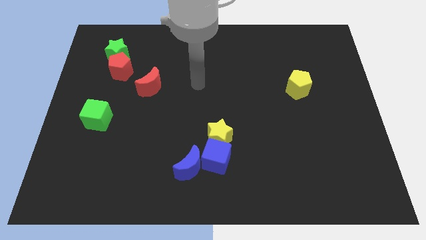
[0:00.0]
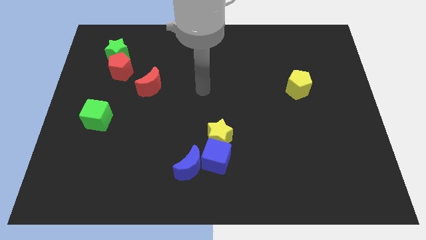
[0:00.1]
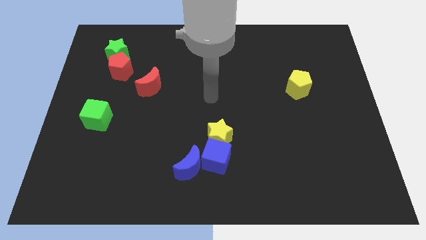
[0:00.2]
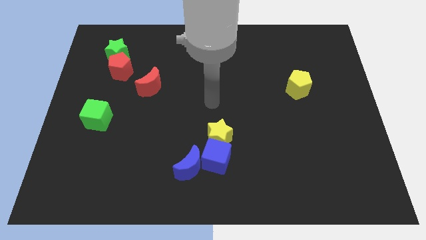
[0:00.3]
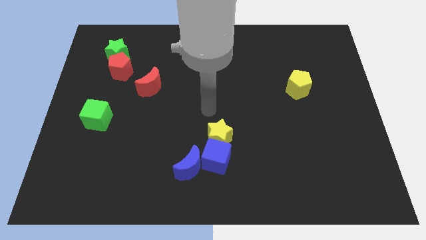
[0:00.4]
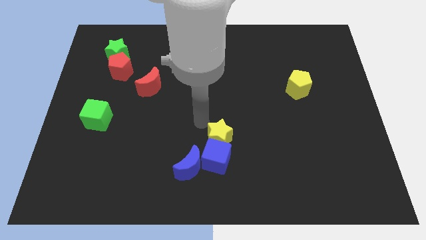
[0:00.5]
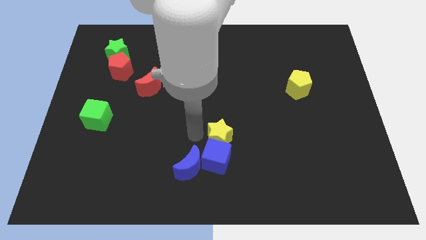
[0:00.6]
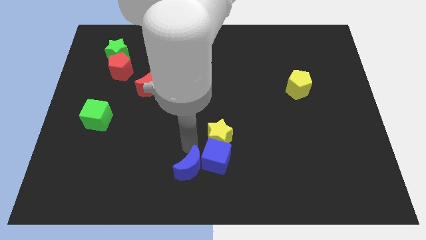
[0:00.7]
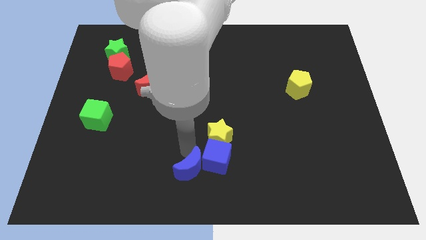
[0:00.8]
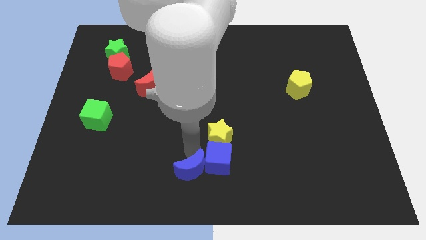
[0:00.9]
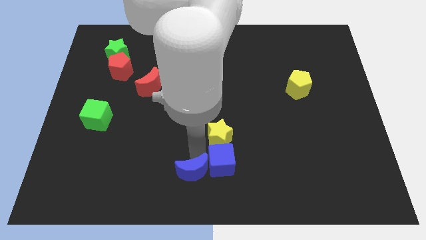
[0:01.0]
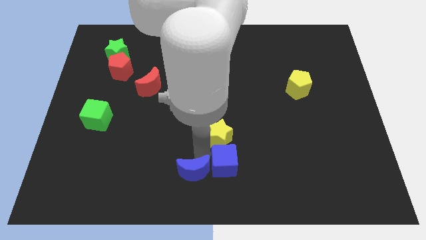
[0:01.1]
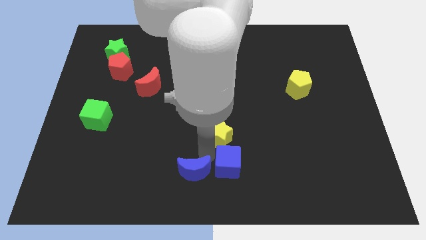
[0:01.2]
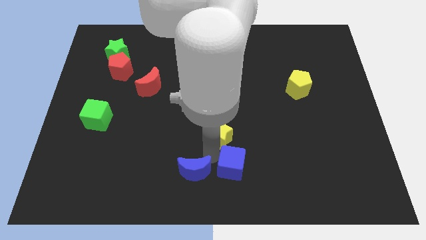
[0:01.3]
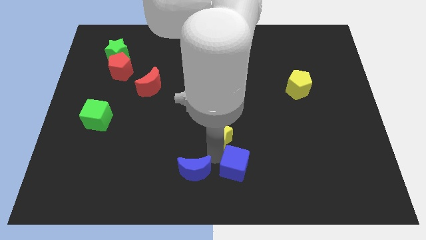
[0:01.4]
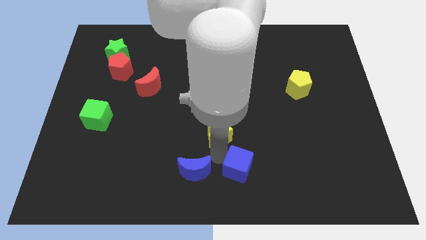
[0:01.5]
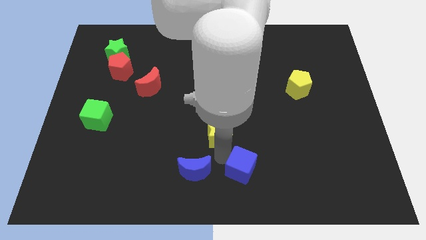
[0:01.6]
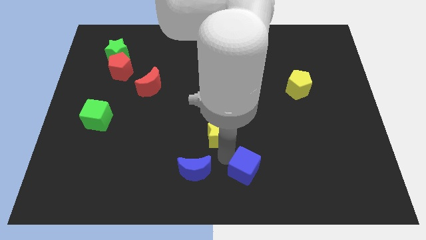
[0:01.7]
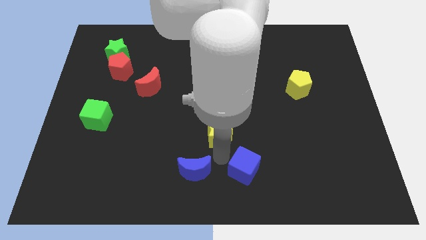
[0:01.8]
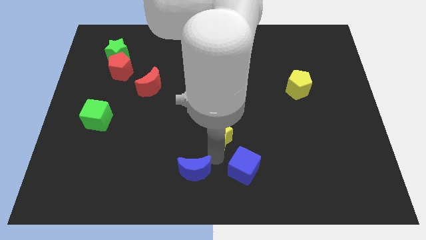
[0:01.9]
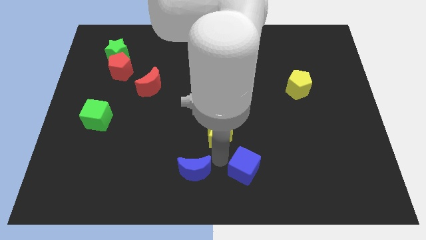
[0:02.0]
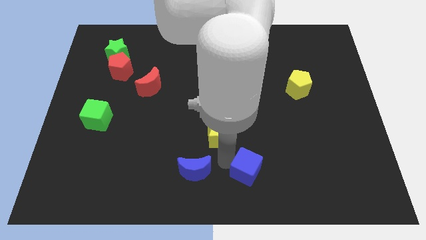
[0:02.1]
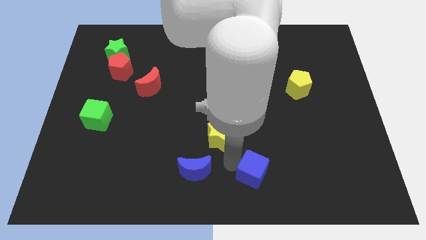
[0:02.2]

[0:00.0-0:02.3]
pull the blue cube apart from the yellow star and blue moon

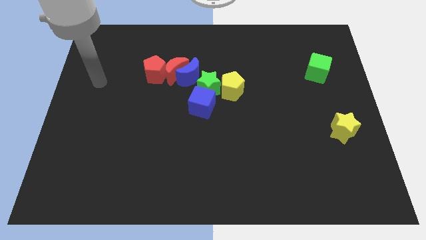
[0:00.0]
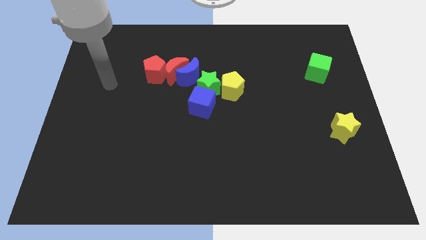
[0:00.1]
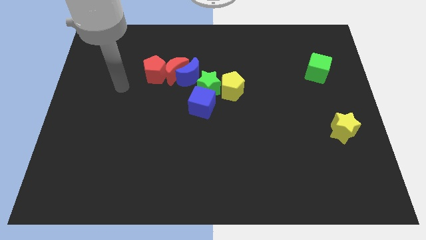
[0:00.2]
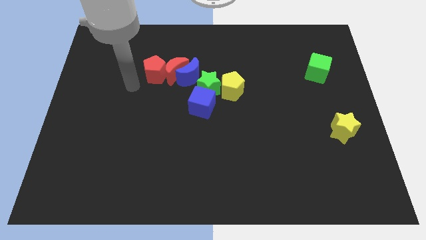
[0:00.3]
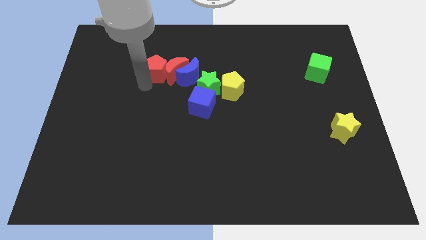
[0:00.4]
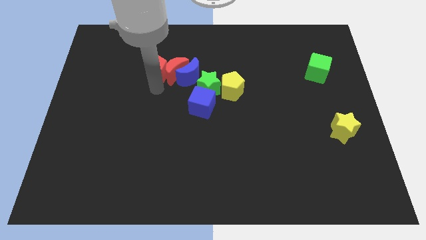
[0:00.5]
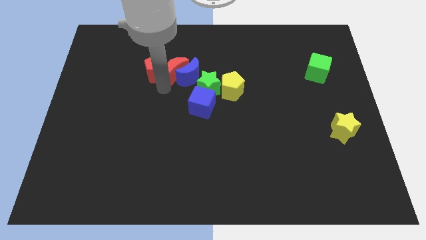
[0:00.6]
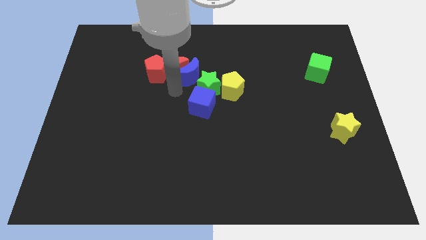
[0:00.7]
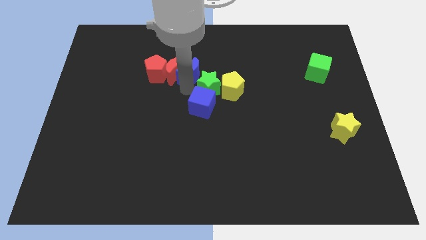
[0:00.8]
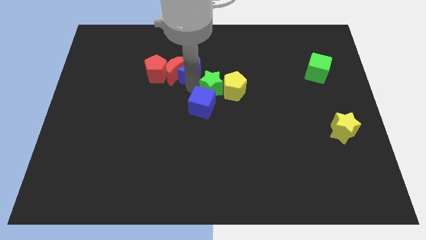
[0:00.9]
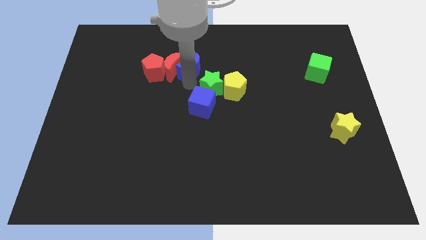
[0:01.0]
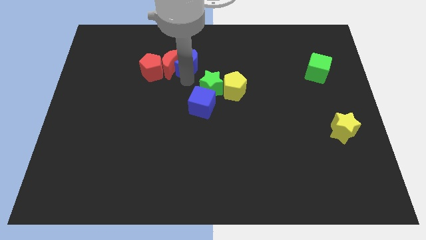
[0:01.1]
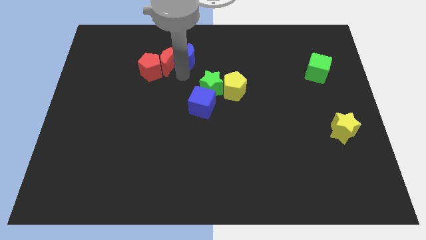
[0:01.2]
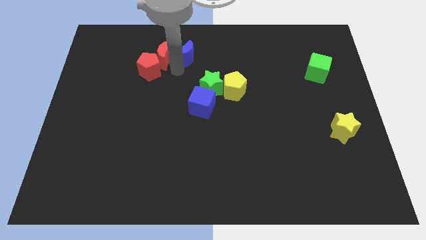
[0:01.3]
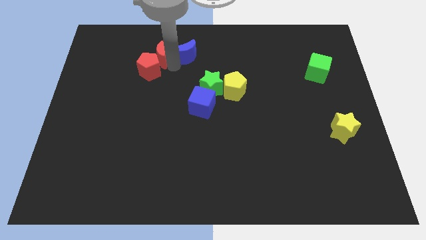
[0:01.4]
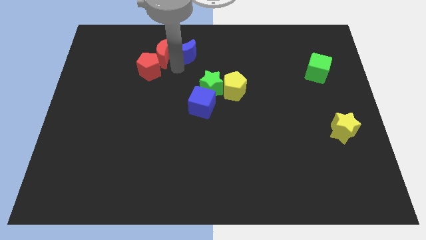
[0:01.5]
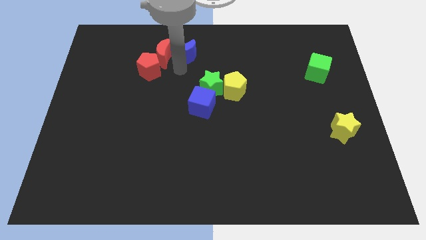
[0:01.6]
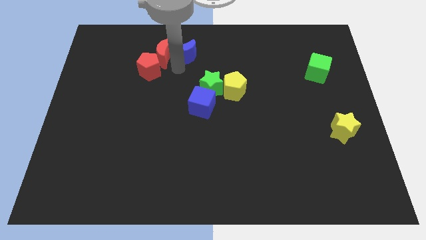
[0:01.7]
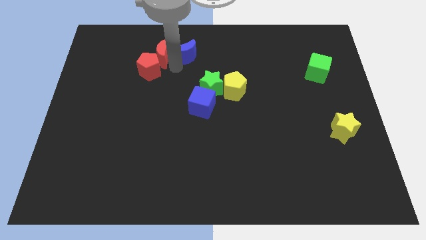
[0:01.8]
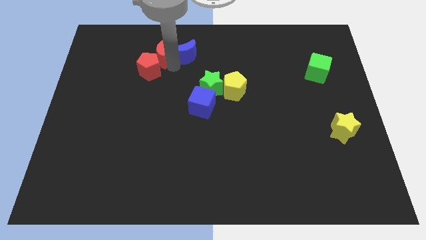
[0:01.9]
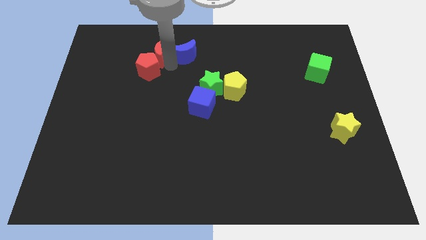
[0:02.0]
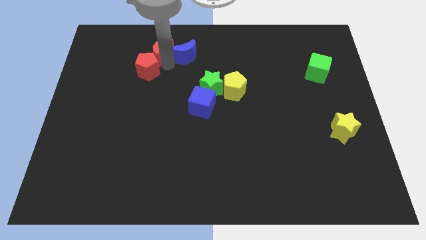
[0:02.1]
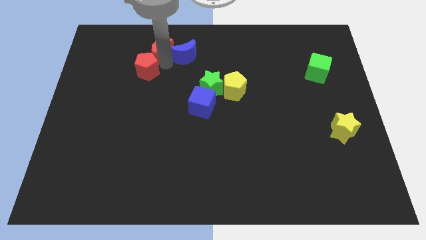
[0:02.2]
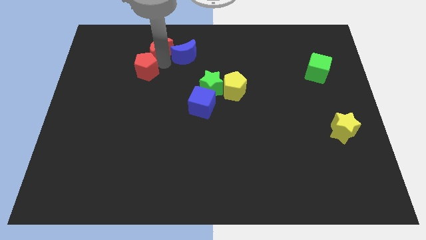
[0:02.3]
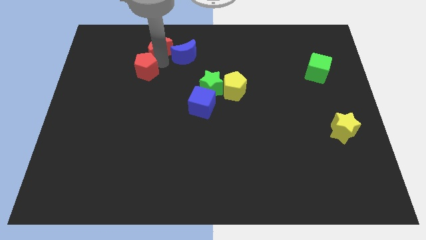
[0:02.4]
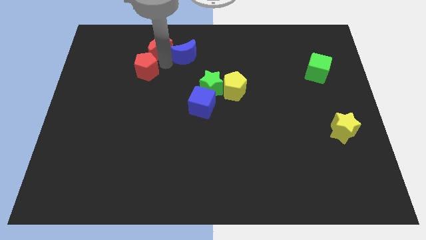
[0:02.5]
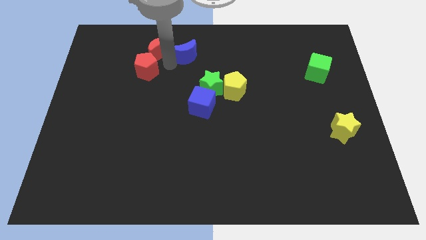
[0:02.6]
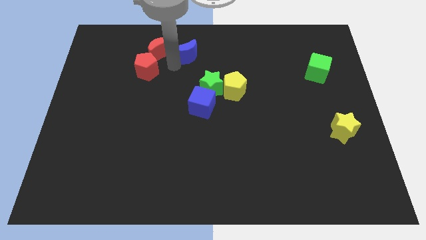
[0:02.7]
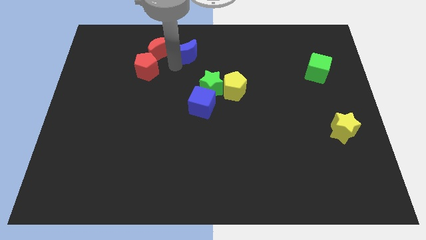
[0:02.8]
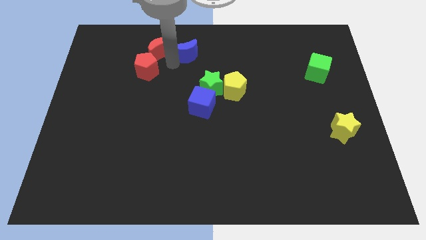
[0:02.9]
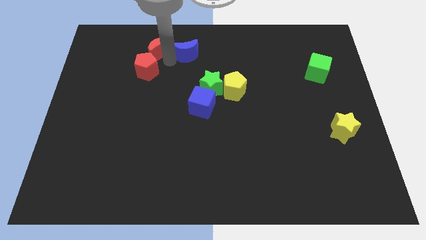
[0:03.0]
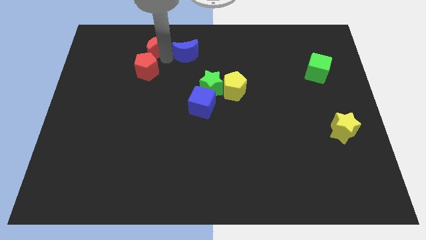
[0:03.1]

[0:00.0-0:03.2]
separate the red moon from the group of blocks

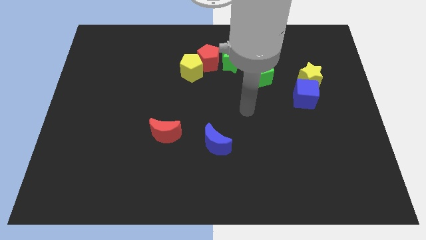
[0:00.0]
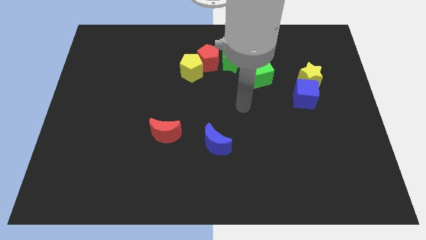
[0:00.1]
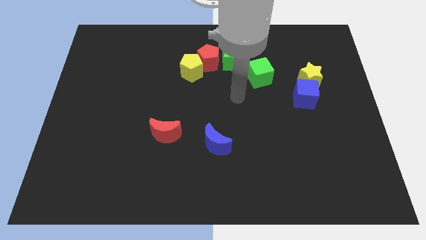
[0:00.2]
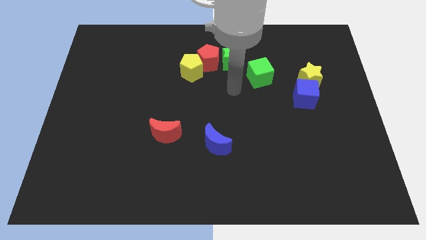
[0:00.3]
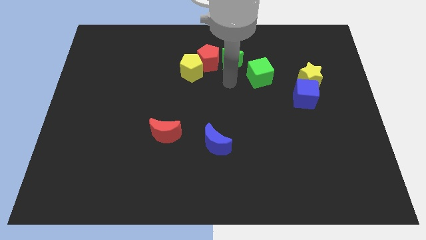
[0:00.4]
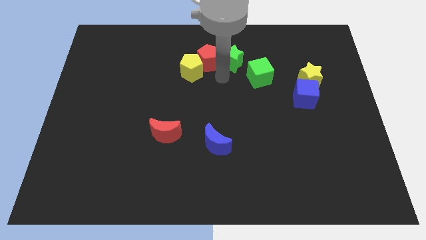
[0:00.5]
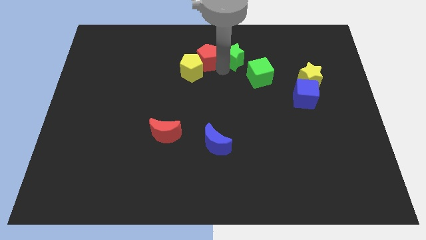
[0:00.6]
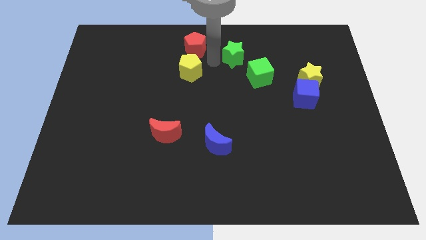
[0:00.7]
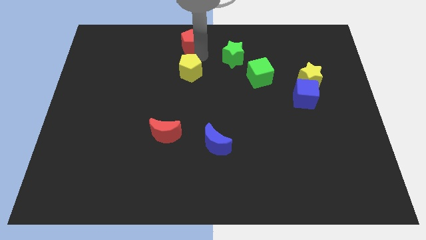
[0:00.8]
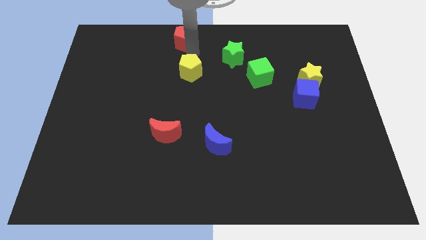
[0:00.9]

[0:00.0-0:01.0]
separate the yellow pentagon from the red pentagon

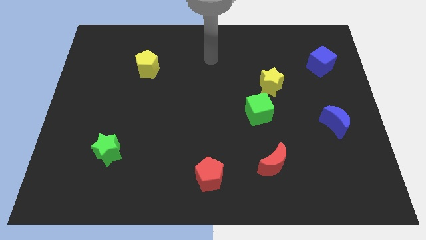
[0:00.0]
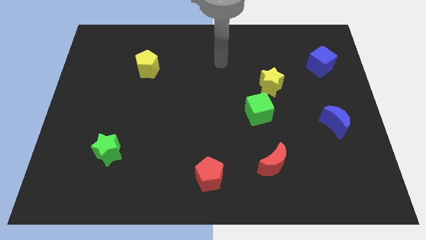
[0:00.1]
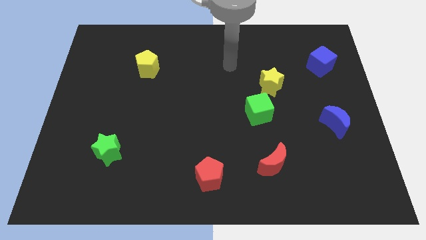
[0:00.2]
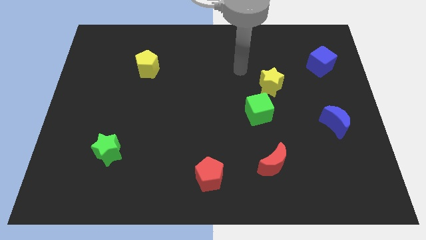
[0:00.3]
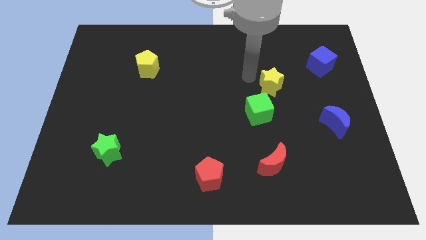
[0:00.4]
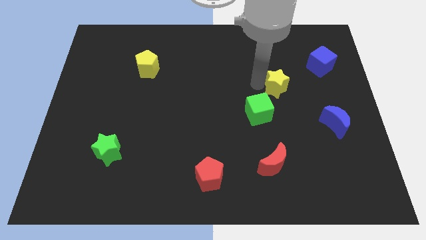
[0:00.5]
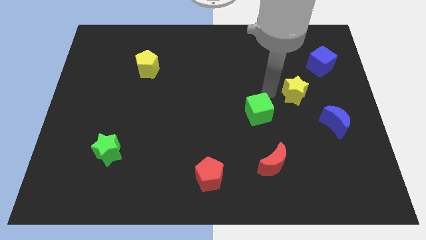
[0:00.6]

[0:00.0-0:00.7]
move the green cube away from the yellow star

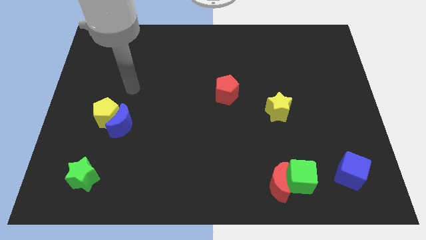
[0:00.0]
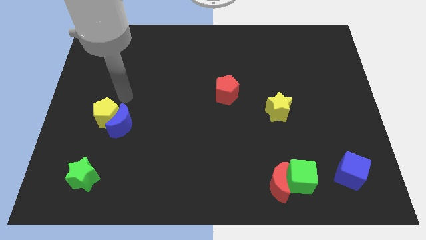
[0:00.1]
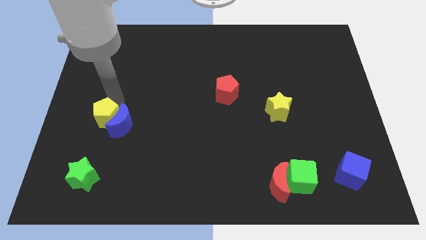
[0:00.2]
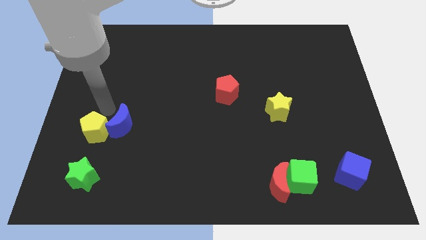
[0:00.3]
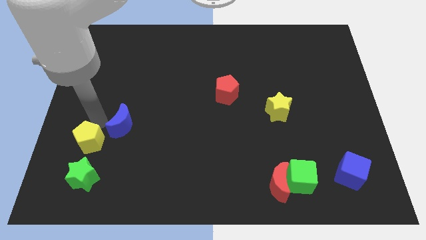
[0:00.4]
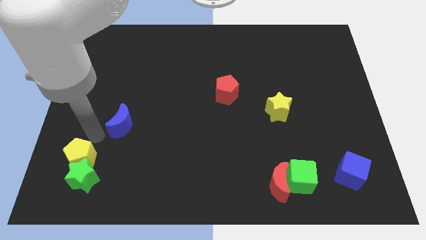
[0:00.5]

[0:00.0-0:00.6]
move the blue moon away from the yellow pentagon

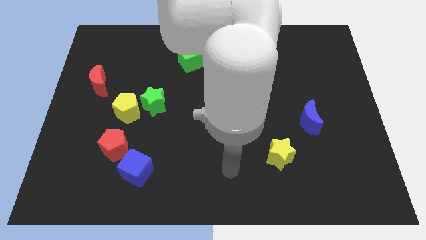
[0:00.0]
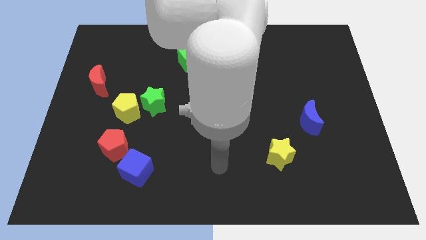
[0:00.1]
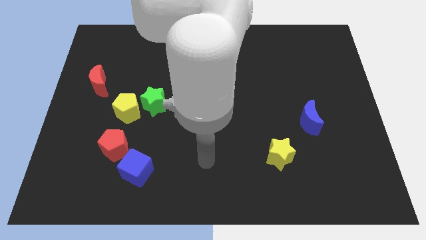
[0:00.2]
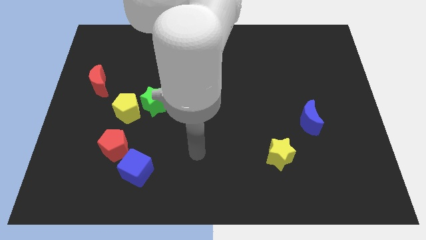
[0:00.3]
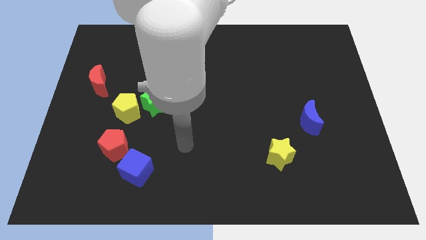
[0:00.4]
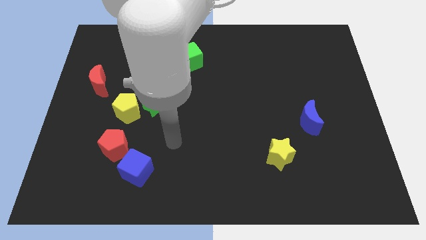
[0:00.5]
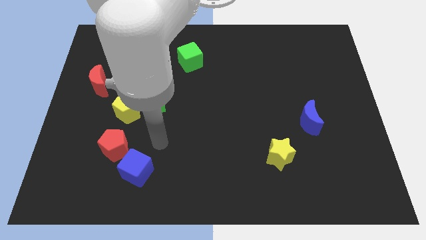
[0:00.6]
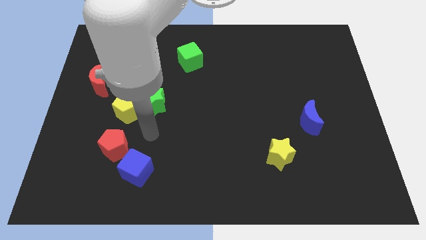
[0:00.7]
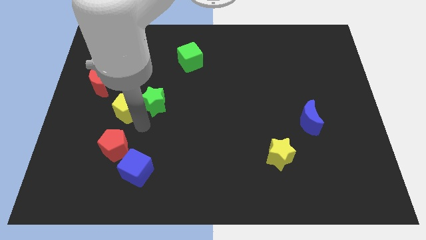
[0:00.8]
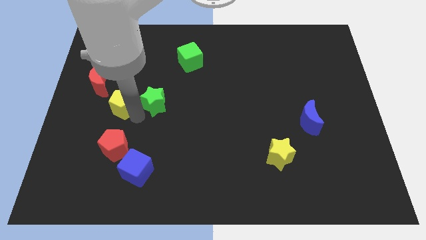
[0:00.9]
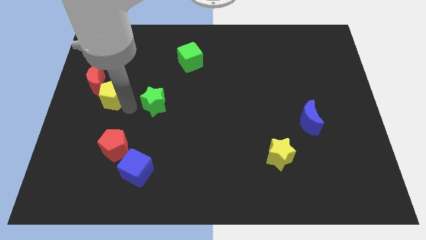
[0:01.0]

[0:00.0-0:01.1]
move the green star away from the yellow pentagon

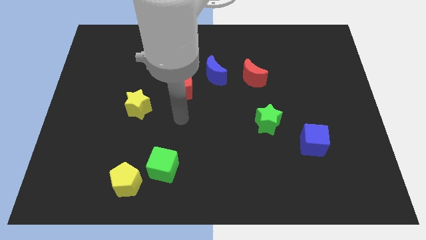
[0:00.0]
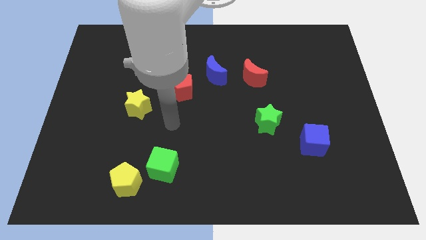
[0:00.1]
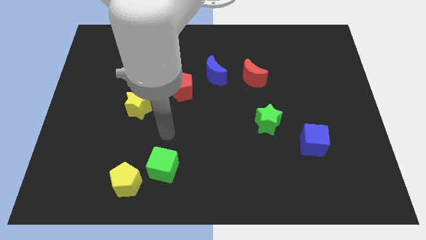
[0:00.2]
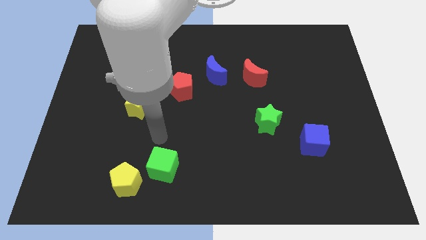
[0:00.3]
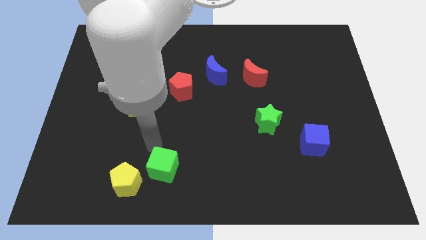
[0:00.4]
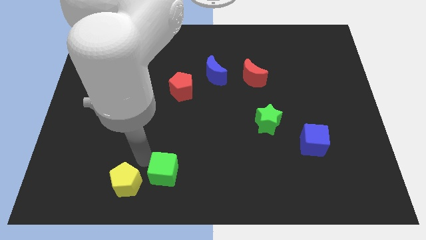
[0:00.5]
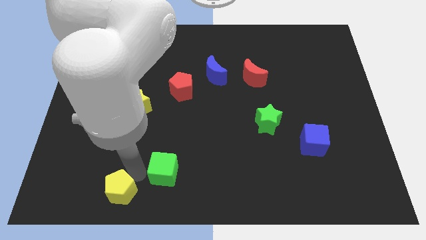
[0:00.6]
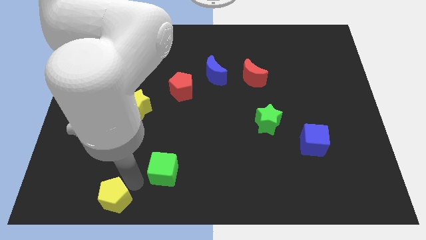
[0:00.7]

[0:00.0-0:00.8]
separate the green cube from the yellow pentagon
